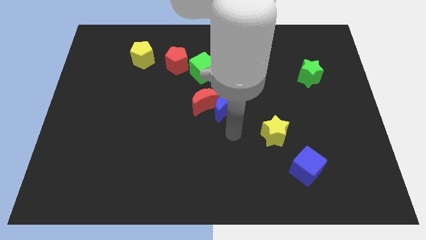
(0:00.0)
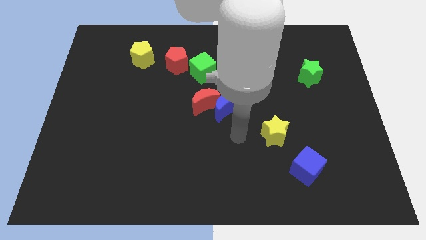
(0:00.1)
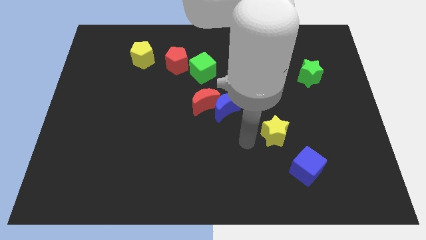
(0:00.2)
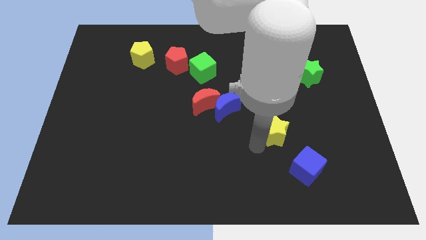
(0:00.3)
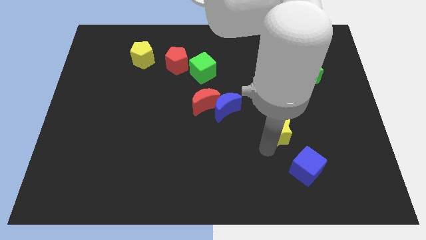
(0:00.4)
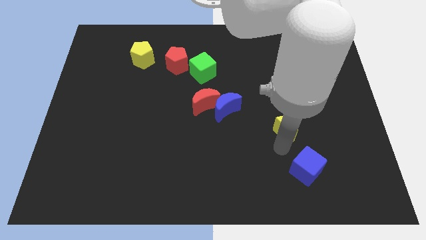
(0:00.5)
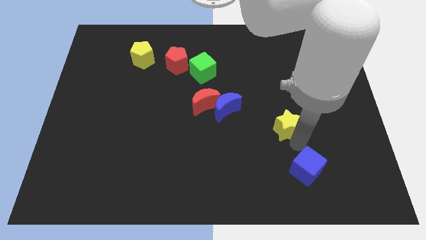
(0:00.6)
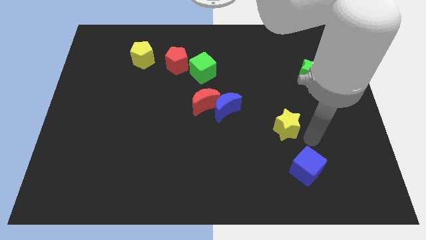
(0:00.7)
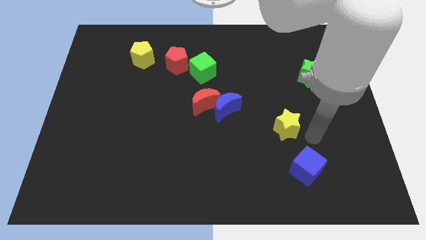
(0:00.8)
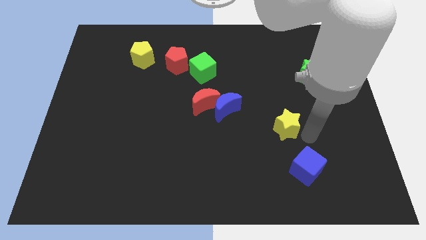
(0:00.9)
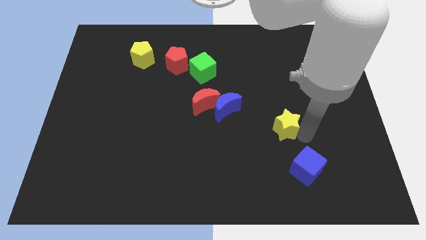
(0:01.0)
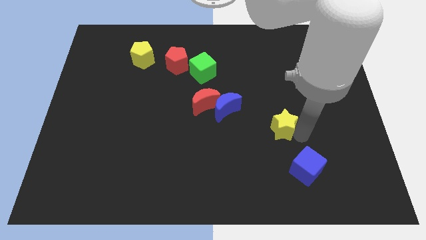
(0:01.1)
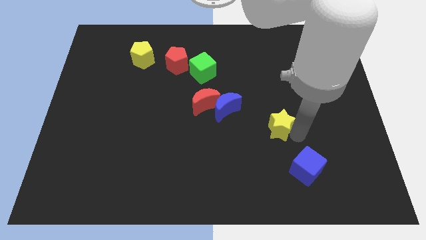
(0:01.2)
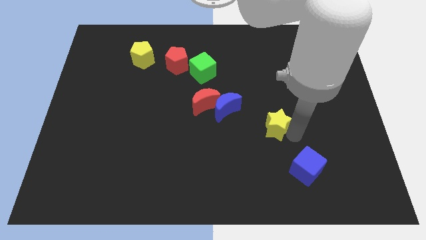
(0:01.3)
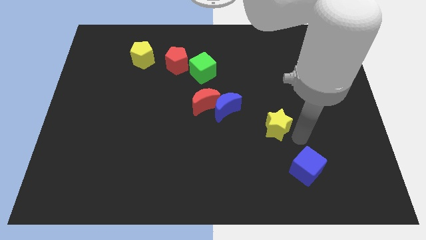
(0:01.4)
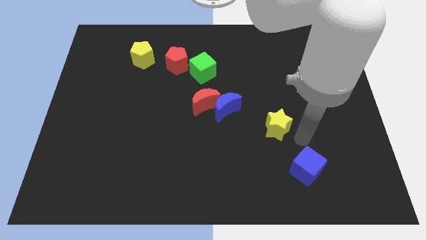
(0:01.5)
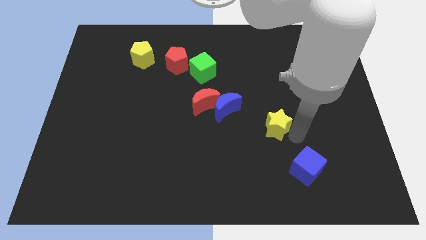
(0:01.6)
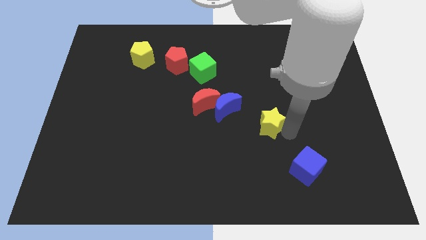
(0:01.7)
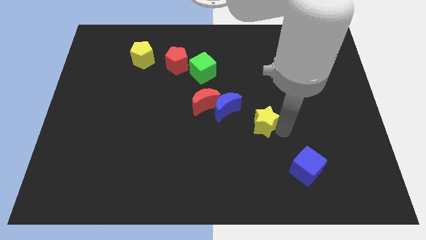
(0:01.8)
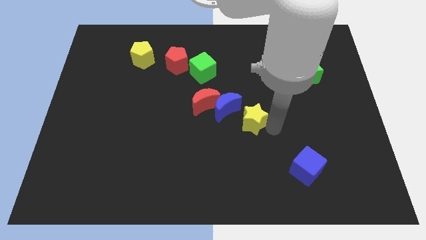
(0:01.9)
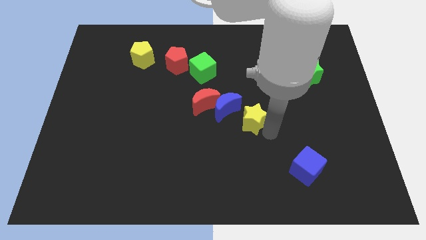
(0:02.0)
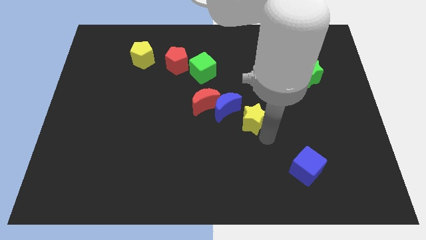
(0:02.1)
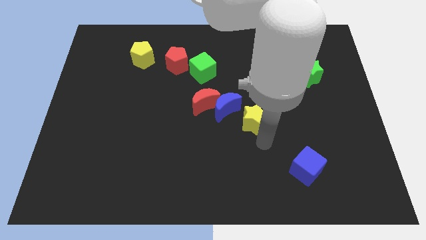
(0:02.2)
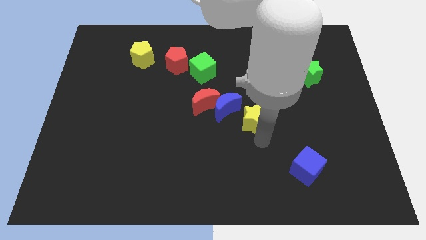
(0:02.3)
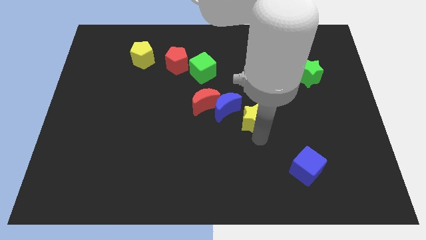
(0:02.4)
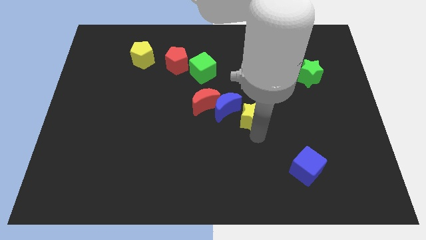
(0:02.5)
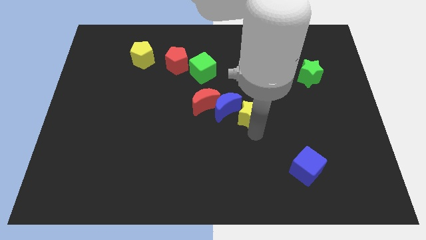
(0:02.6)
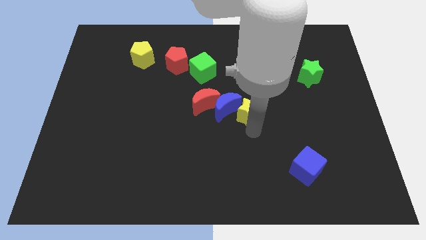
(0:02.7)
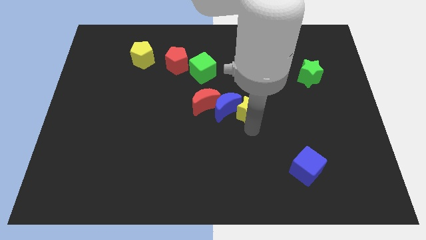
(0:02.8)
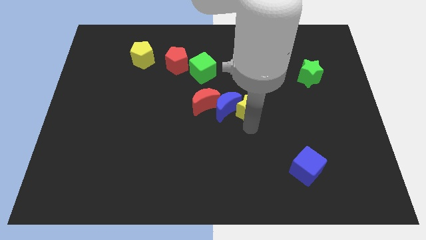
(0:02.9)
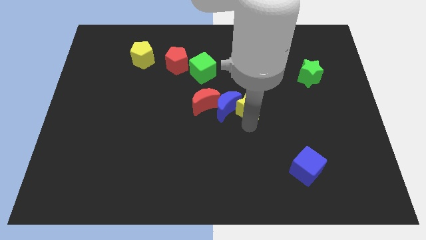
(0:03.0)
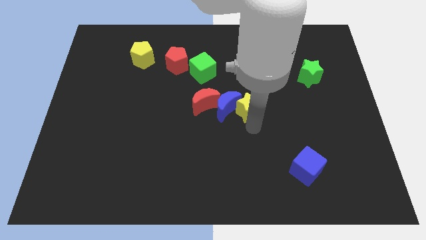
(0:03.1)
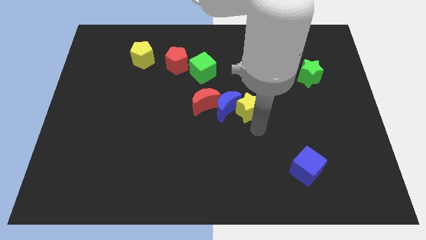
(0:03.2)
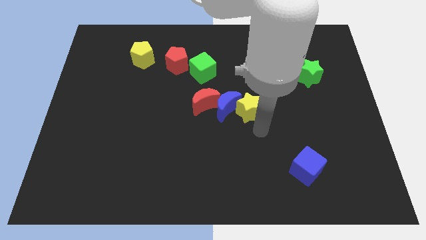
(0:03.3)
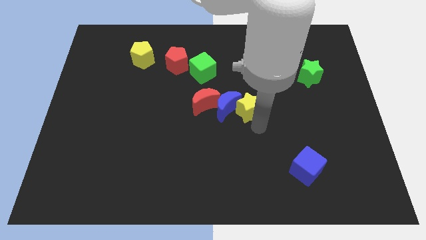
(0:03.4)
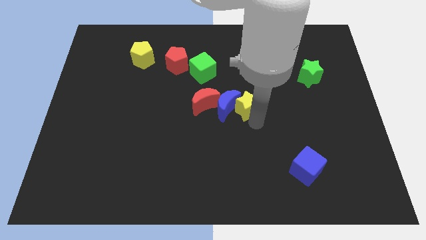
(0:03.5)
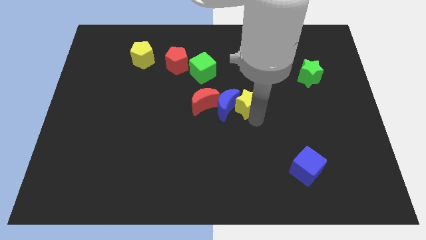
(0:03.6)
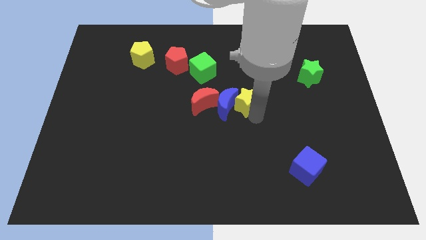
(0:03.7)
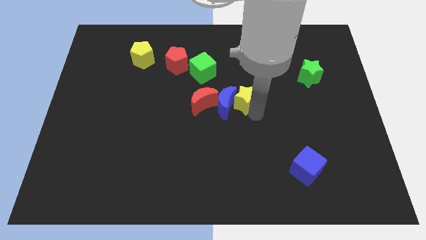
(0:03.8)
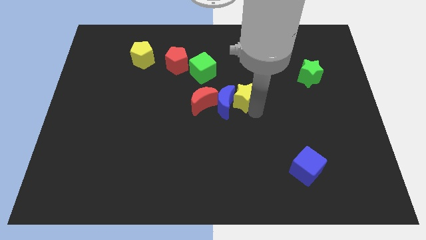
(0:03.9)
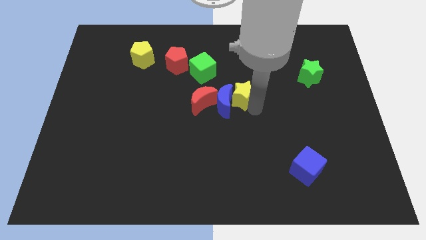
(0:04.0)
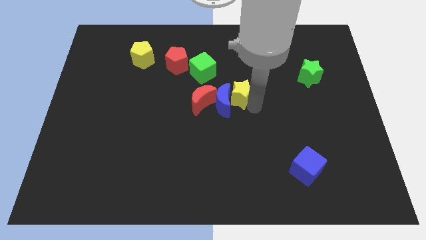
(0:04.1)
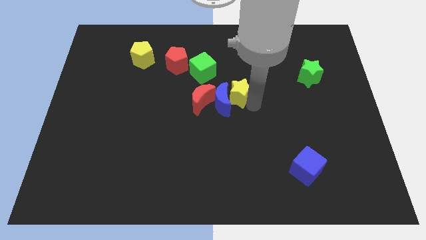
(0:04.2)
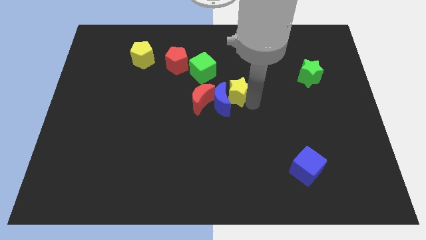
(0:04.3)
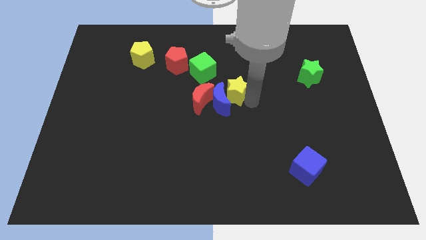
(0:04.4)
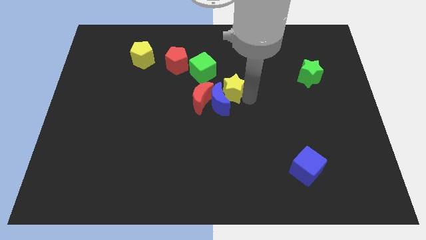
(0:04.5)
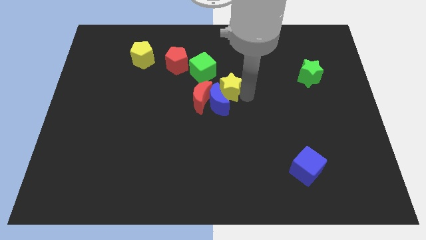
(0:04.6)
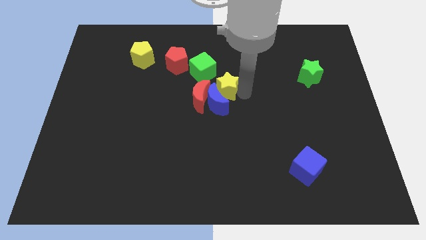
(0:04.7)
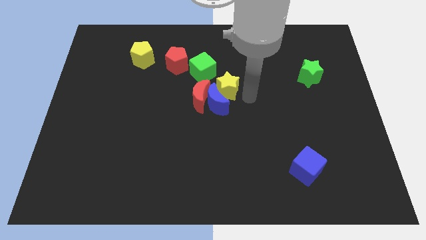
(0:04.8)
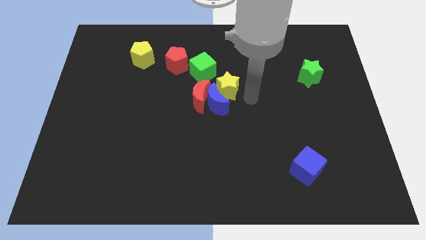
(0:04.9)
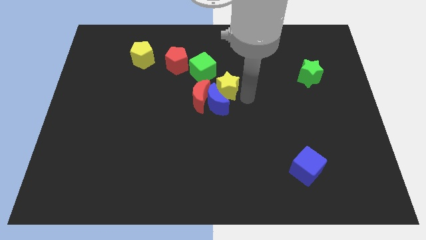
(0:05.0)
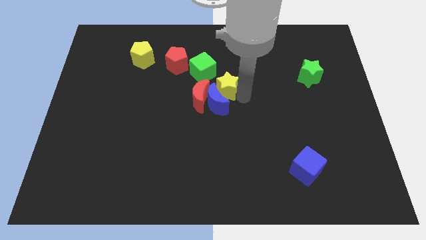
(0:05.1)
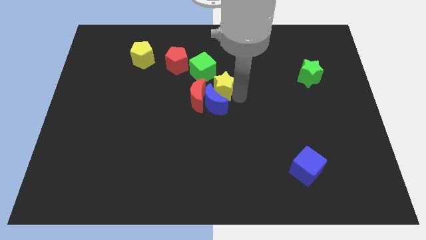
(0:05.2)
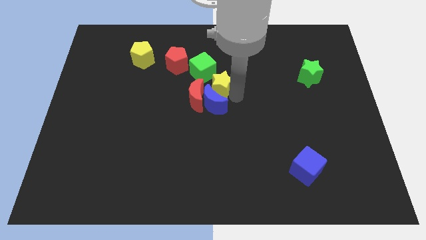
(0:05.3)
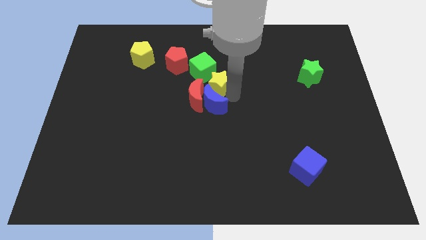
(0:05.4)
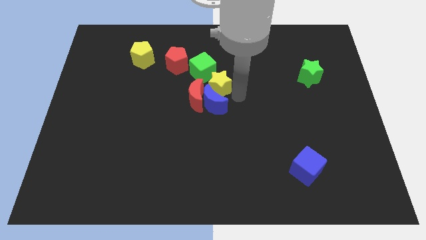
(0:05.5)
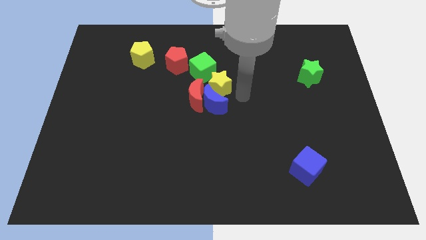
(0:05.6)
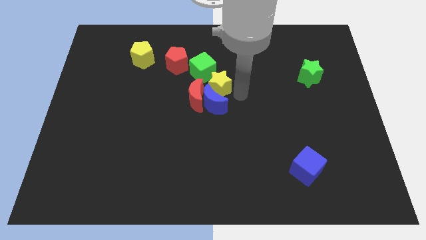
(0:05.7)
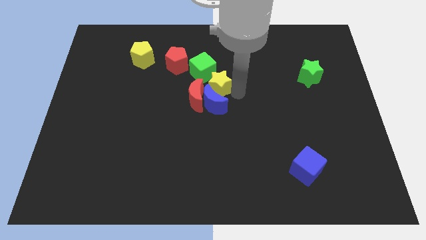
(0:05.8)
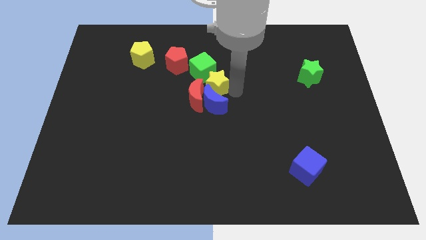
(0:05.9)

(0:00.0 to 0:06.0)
put the yellow star to the bottom right of the red pentagon

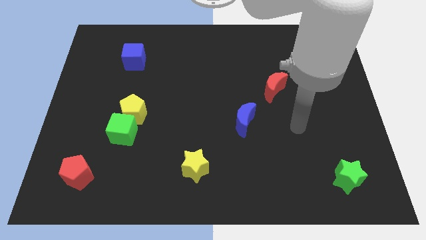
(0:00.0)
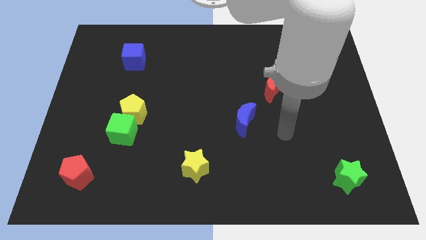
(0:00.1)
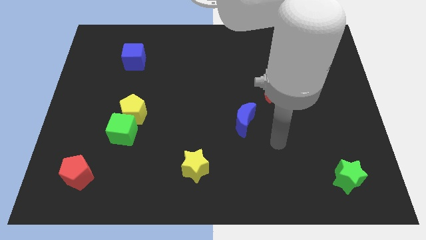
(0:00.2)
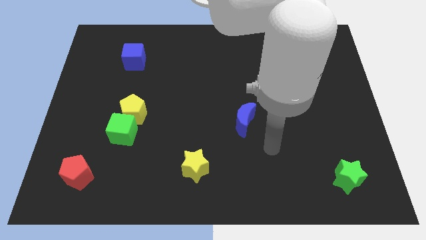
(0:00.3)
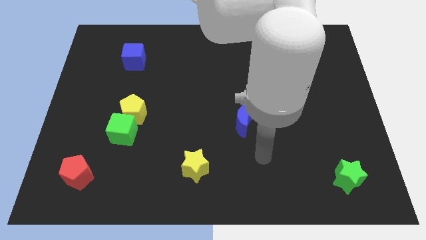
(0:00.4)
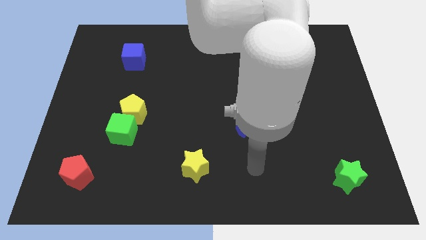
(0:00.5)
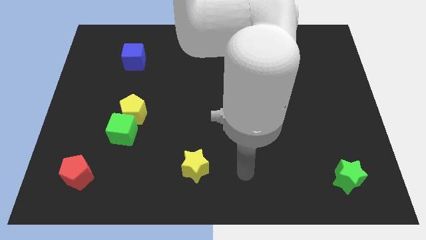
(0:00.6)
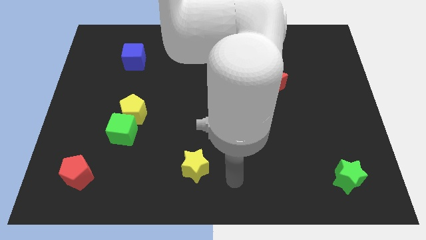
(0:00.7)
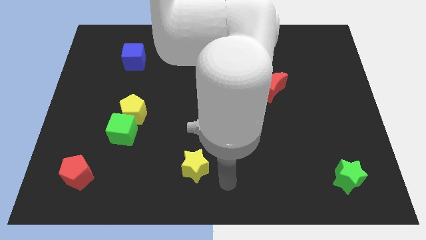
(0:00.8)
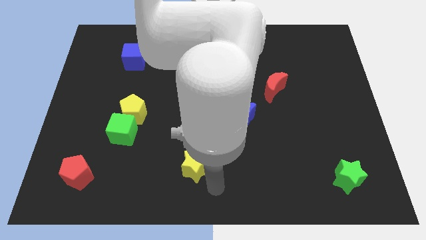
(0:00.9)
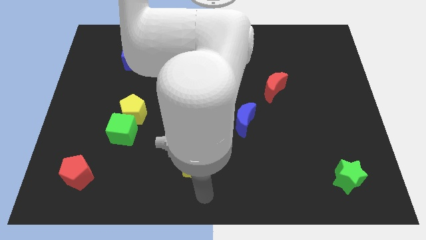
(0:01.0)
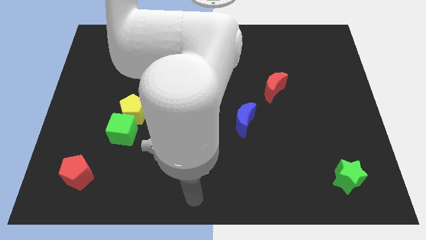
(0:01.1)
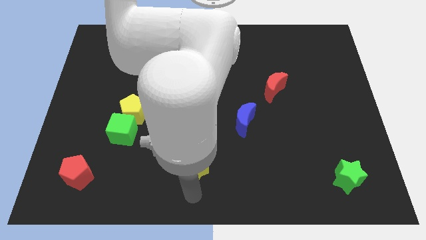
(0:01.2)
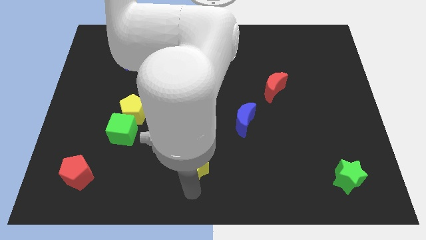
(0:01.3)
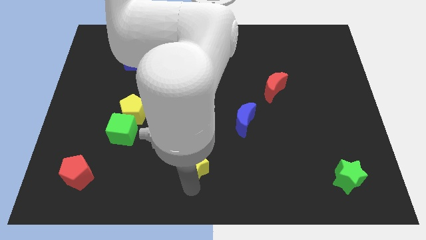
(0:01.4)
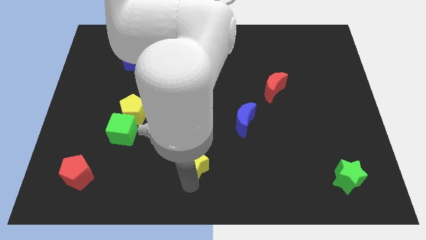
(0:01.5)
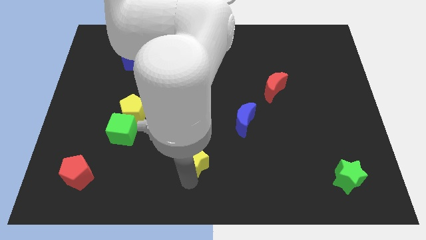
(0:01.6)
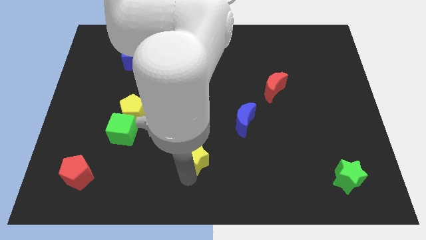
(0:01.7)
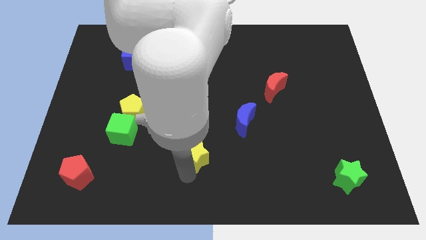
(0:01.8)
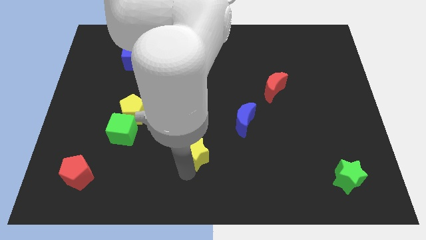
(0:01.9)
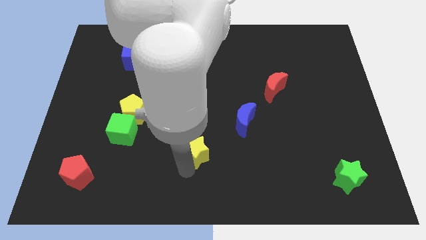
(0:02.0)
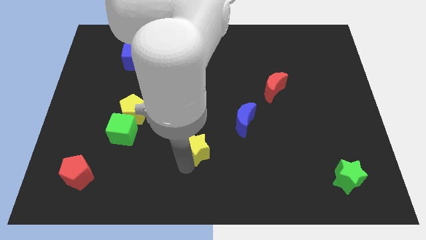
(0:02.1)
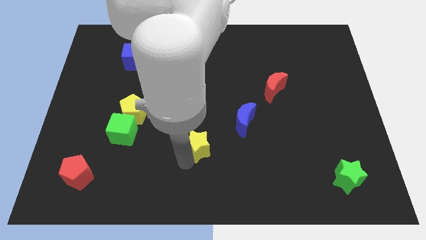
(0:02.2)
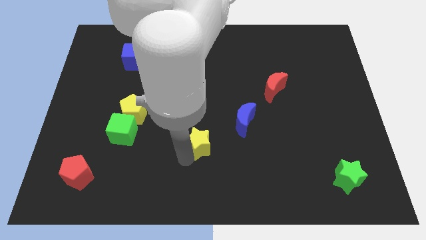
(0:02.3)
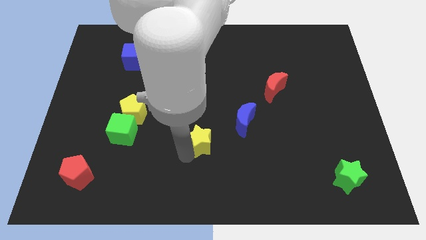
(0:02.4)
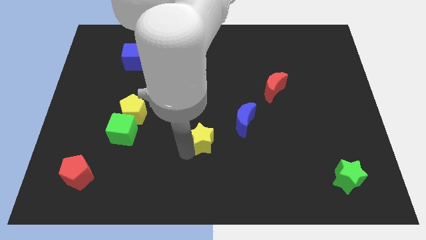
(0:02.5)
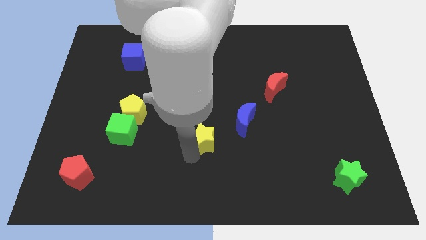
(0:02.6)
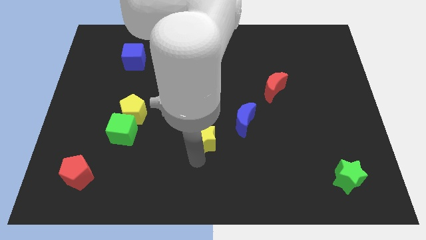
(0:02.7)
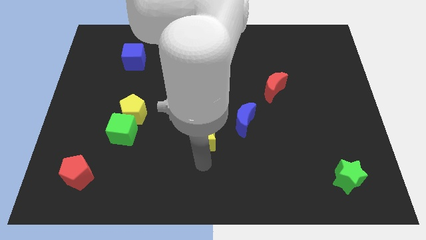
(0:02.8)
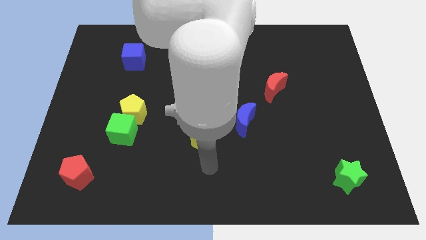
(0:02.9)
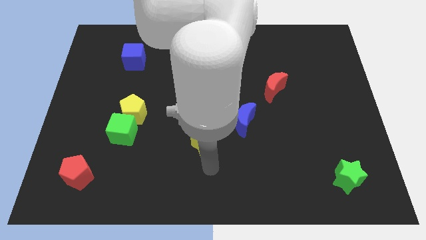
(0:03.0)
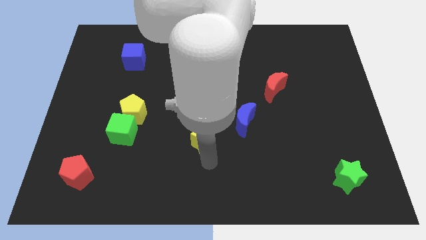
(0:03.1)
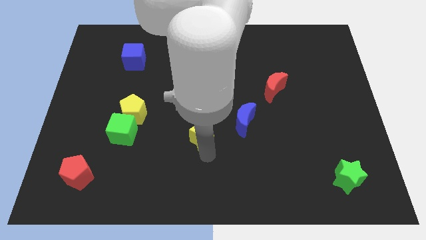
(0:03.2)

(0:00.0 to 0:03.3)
slide the yellow star to the left of the blue moon
